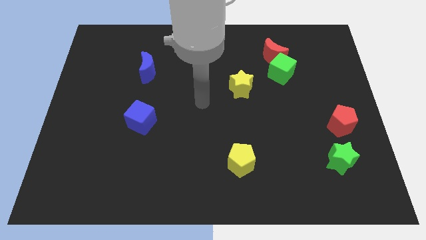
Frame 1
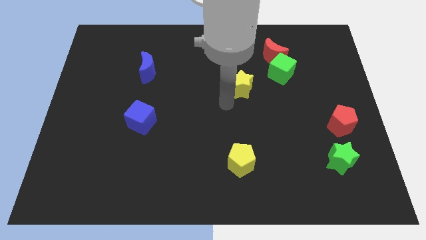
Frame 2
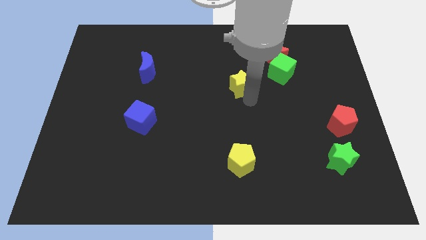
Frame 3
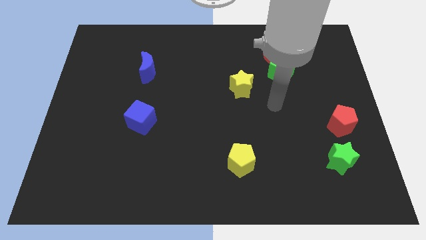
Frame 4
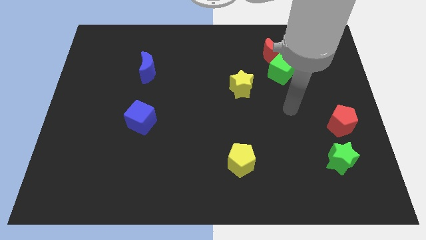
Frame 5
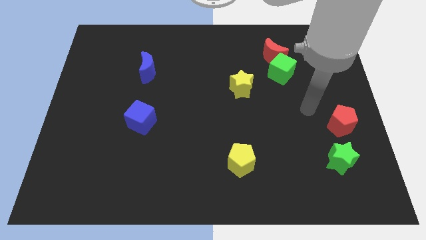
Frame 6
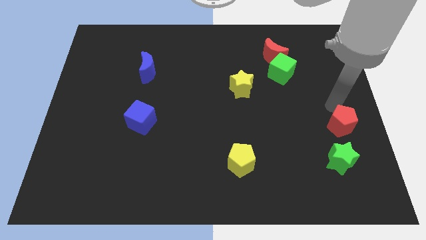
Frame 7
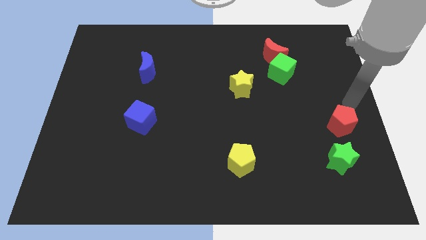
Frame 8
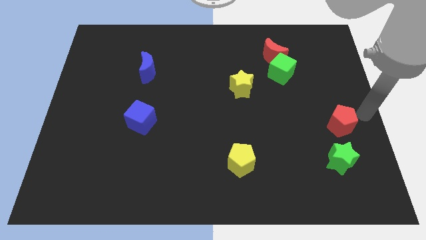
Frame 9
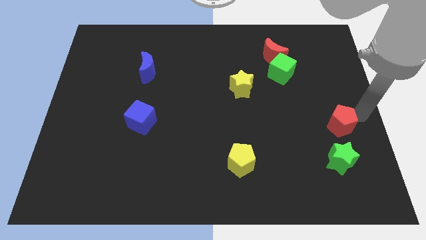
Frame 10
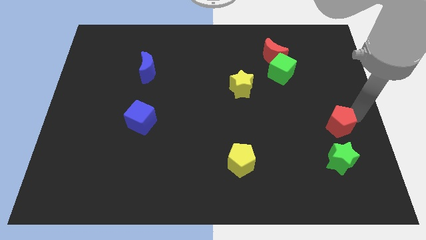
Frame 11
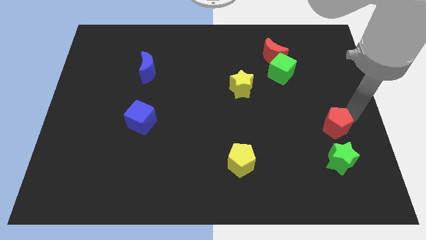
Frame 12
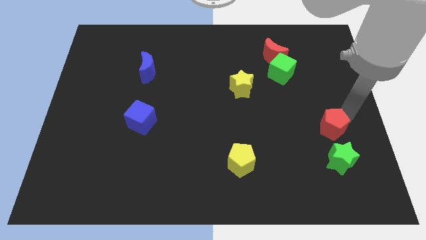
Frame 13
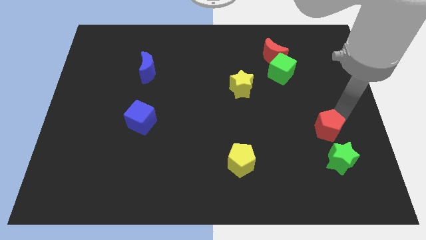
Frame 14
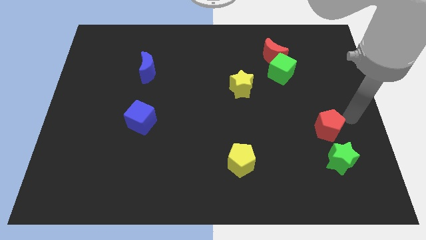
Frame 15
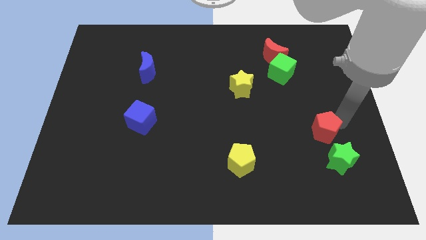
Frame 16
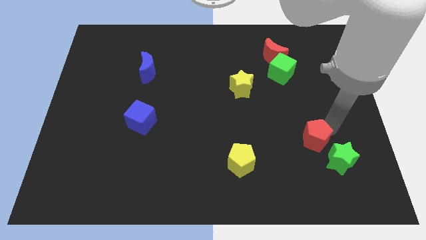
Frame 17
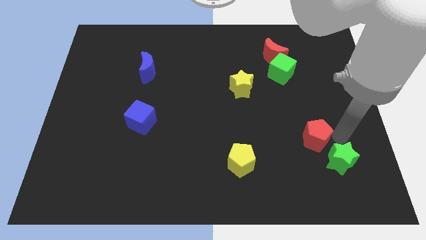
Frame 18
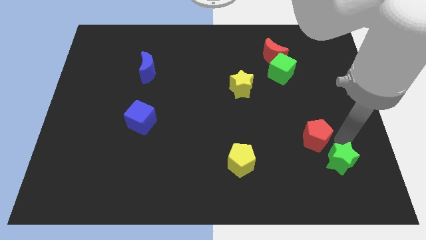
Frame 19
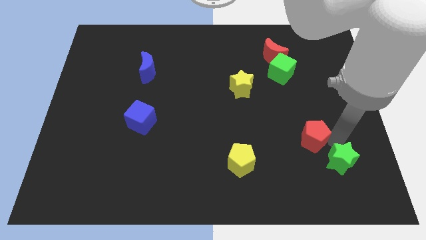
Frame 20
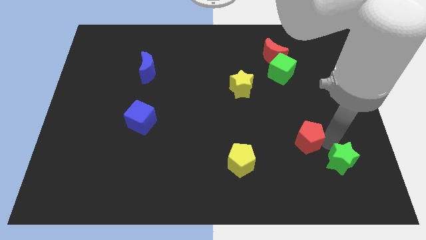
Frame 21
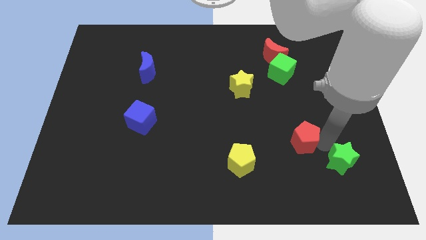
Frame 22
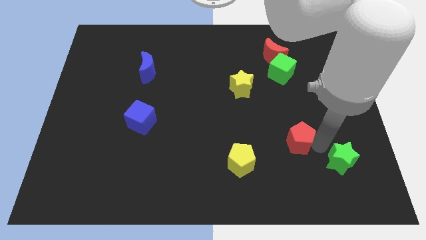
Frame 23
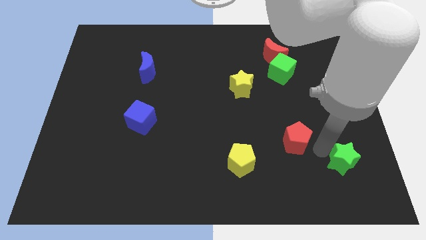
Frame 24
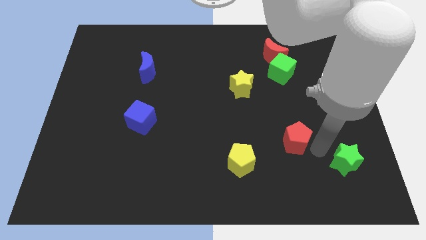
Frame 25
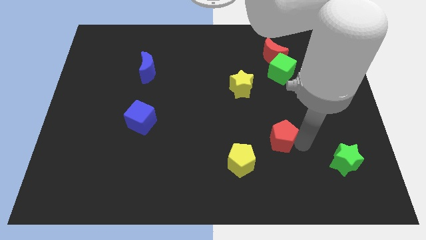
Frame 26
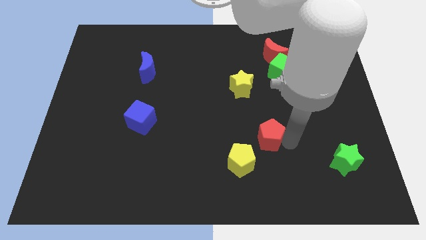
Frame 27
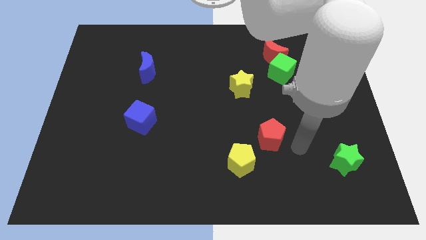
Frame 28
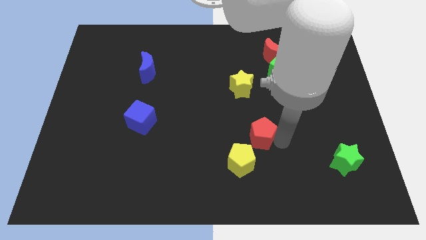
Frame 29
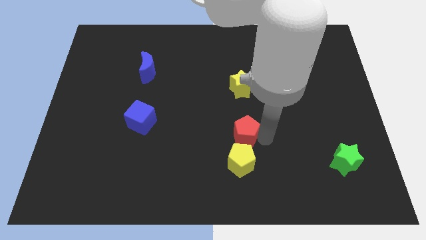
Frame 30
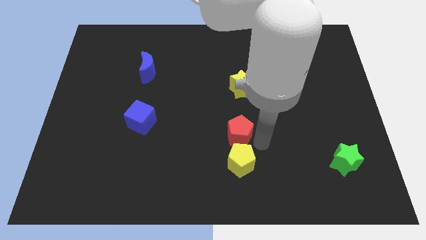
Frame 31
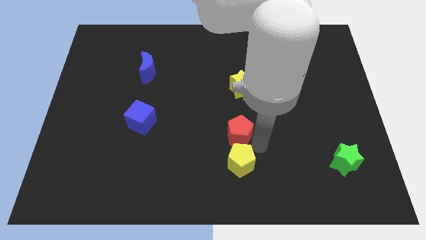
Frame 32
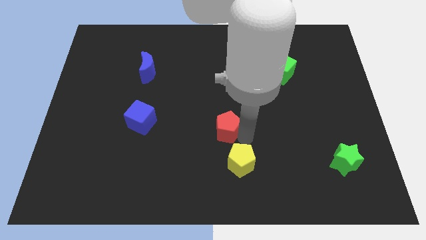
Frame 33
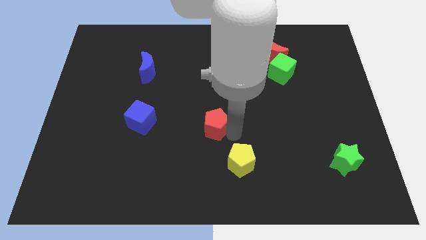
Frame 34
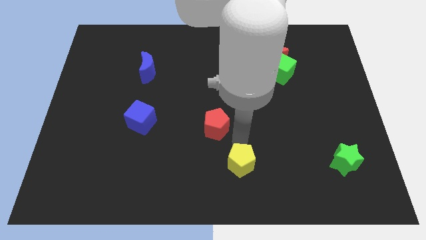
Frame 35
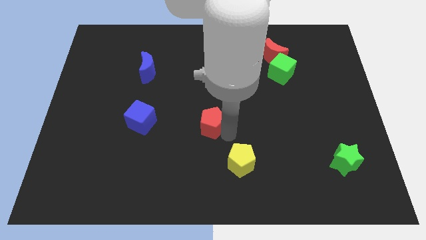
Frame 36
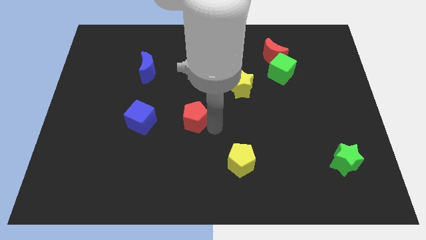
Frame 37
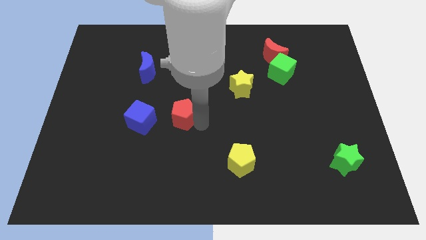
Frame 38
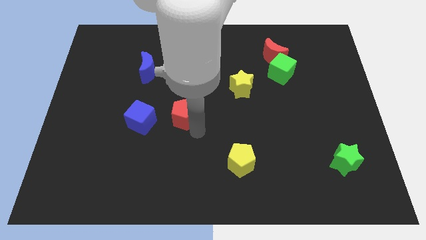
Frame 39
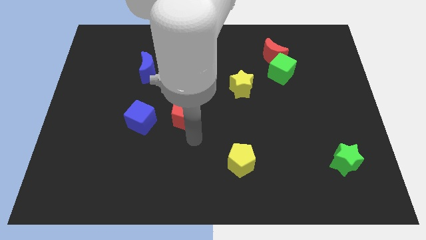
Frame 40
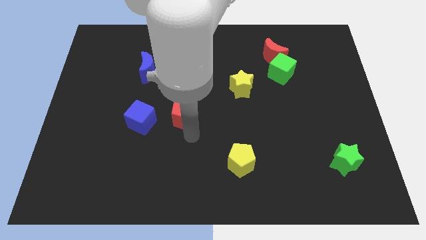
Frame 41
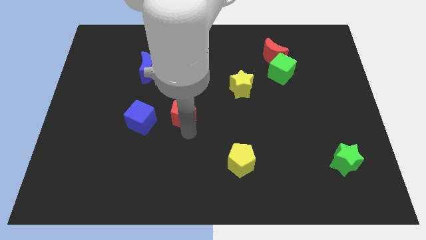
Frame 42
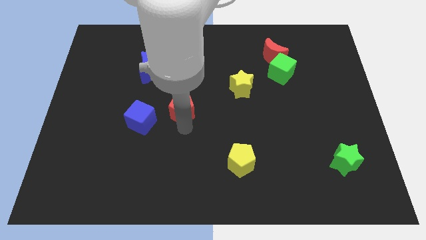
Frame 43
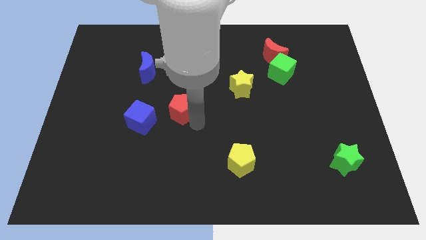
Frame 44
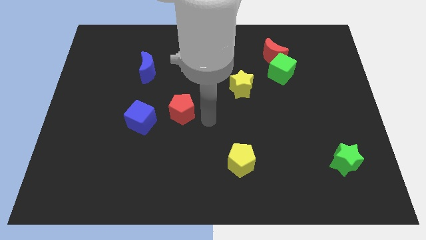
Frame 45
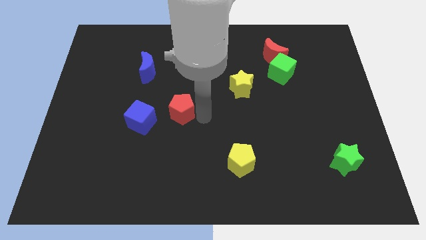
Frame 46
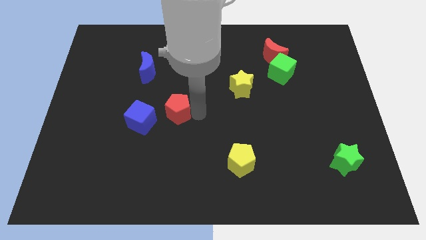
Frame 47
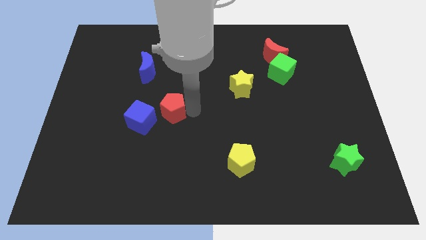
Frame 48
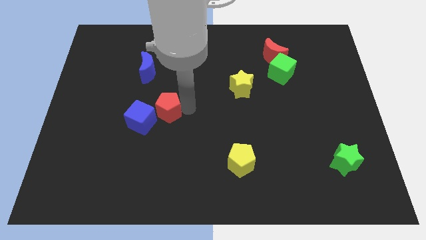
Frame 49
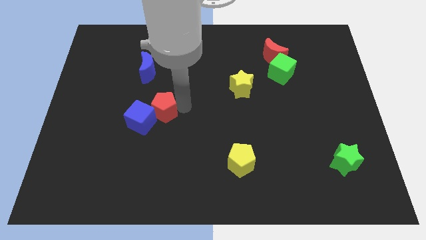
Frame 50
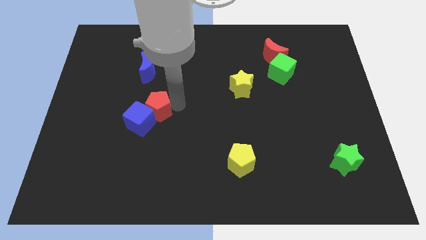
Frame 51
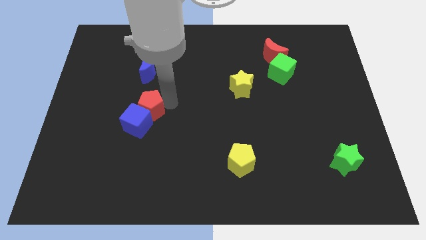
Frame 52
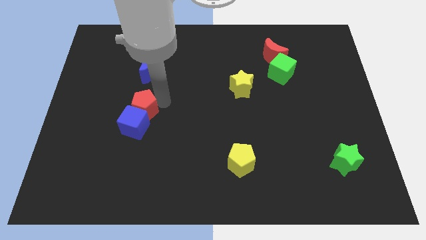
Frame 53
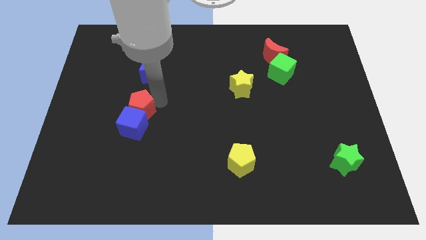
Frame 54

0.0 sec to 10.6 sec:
put the red pentagon to the top left side of the blue cube
